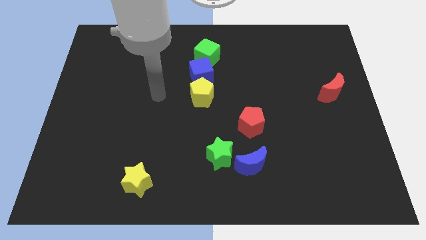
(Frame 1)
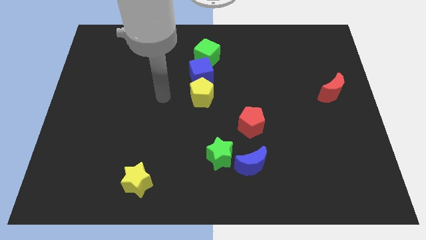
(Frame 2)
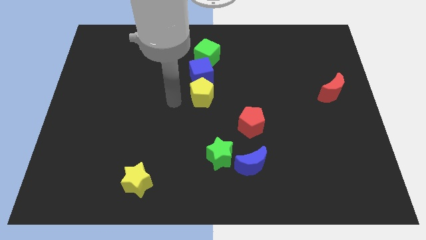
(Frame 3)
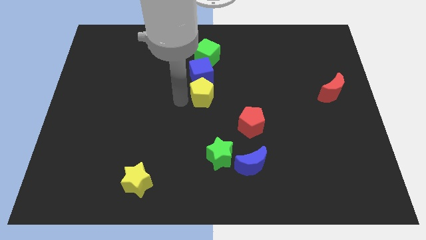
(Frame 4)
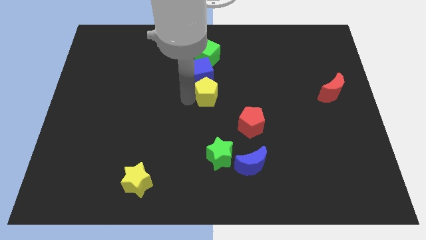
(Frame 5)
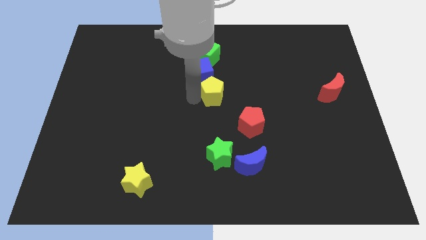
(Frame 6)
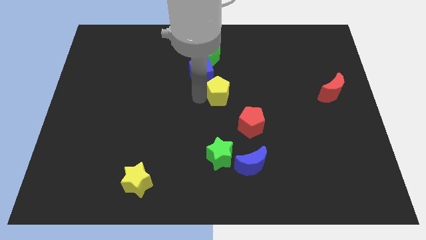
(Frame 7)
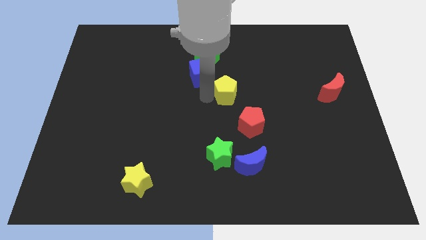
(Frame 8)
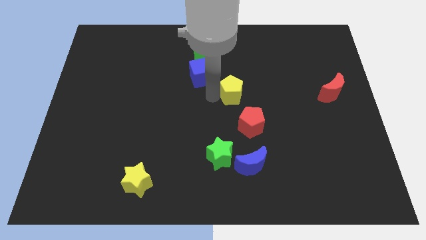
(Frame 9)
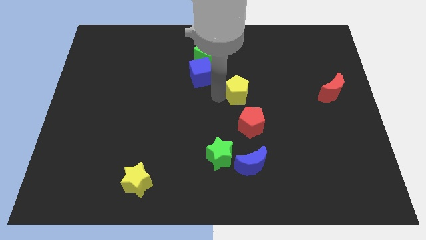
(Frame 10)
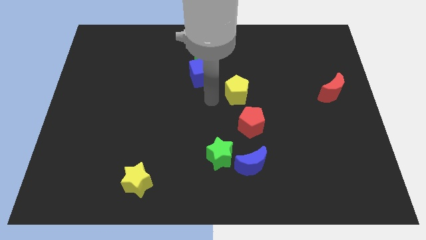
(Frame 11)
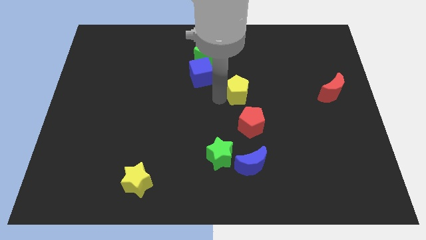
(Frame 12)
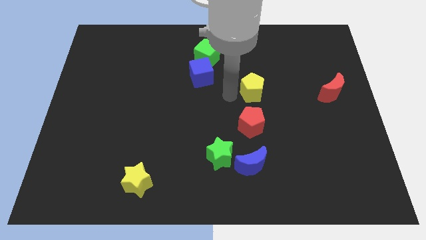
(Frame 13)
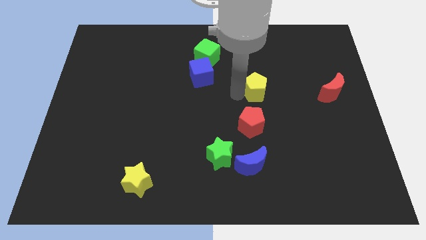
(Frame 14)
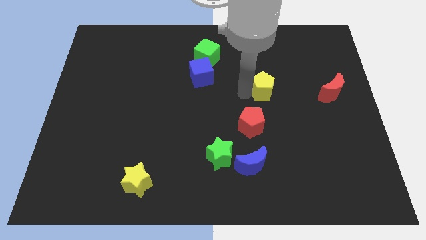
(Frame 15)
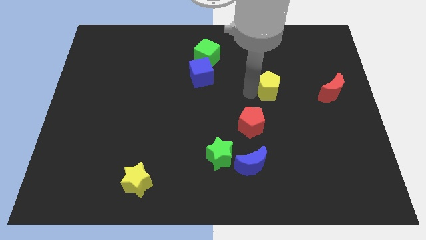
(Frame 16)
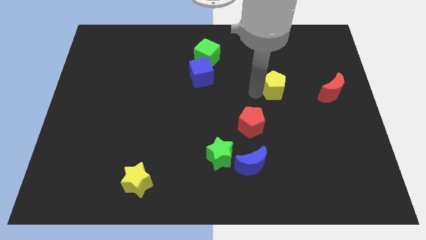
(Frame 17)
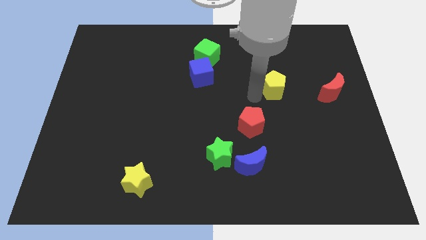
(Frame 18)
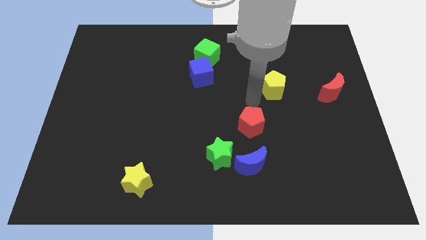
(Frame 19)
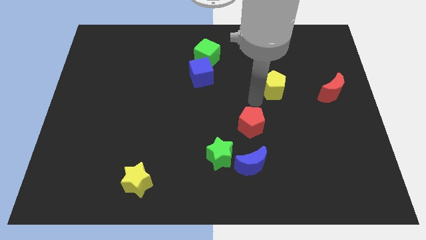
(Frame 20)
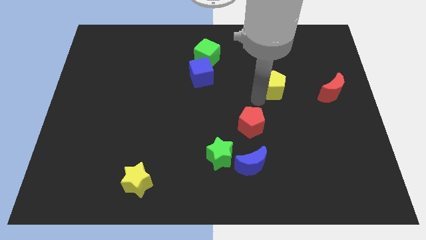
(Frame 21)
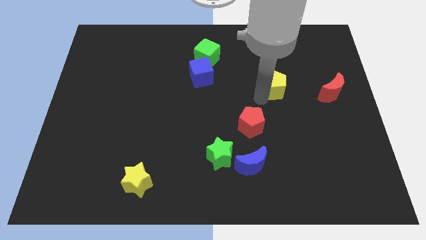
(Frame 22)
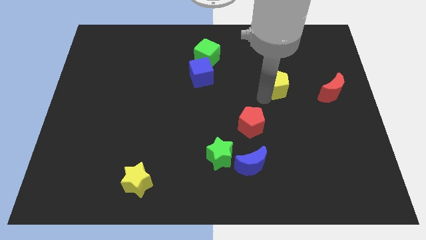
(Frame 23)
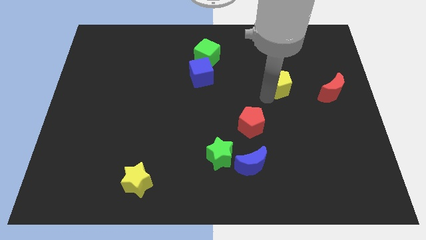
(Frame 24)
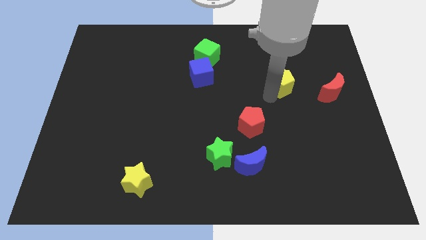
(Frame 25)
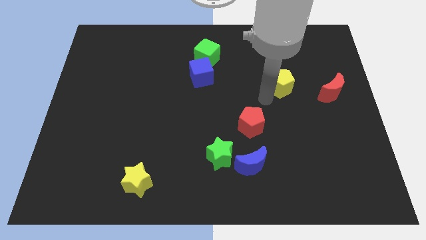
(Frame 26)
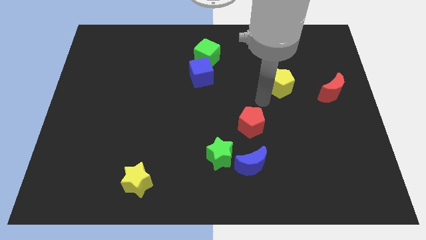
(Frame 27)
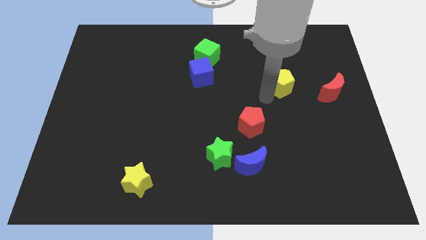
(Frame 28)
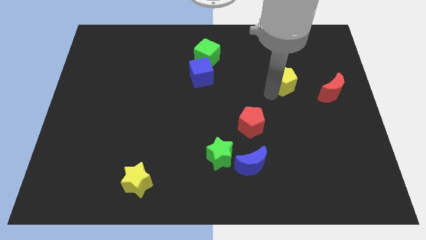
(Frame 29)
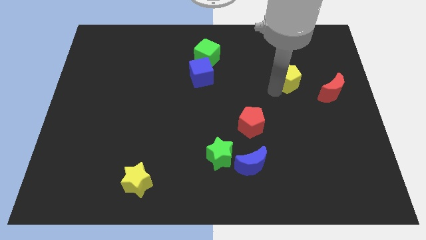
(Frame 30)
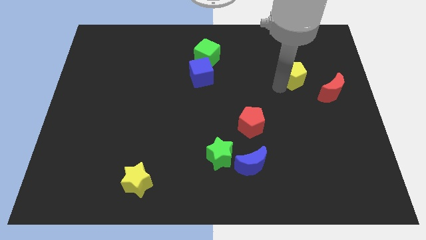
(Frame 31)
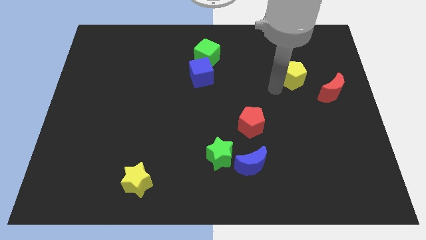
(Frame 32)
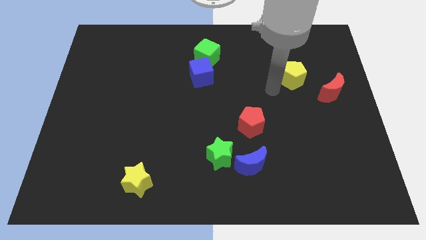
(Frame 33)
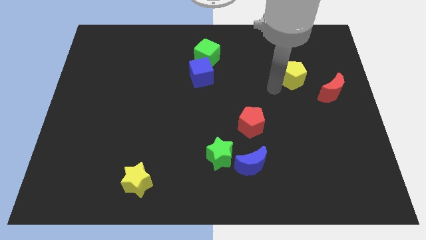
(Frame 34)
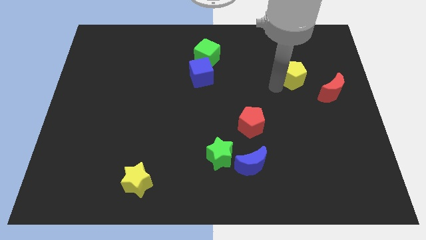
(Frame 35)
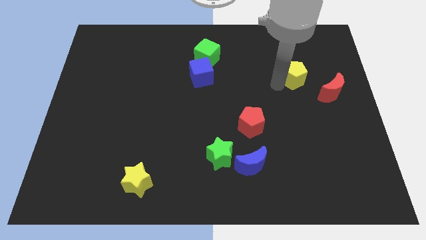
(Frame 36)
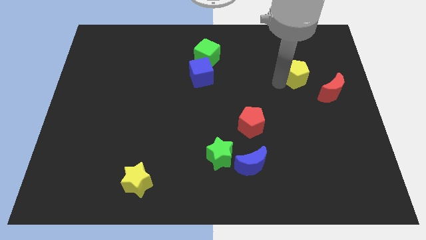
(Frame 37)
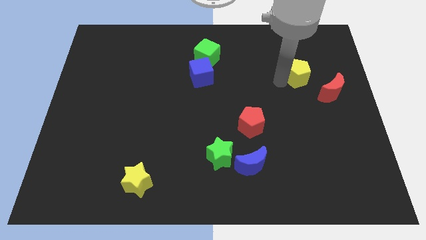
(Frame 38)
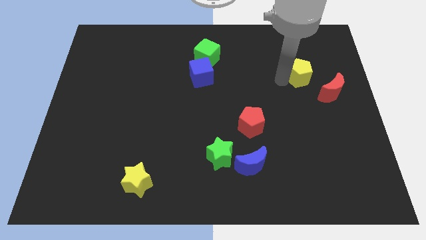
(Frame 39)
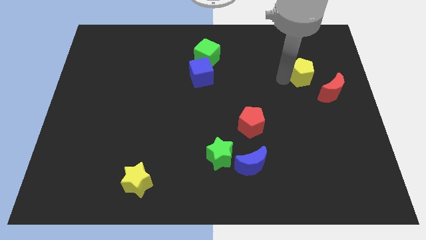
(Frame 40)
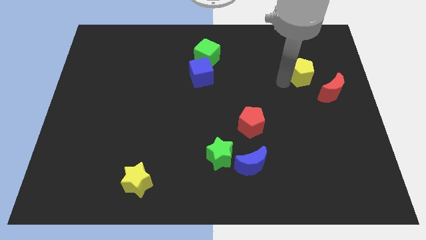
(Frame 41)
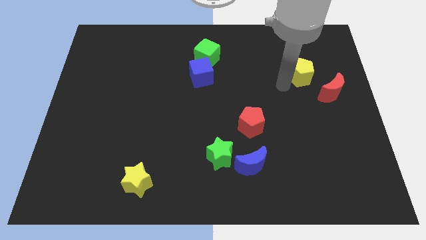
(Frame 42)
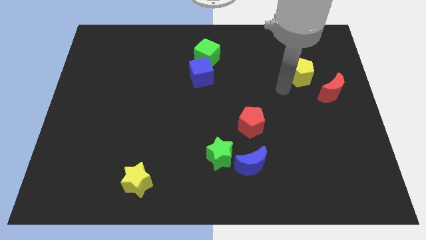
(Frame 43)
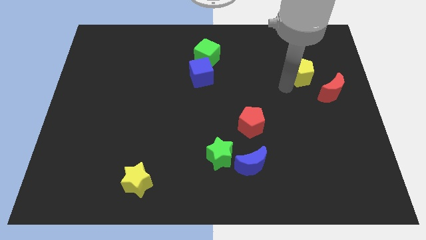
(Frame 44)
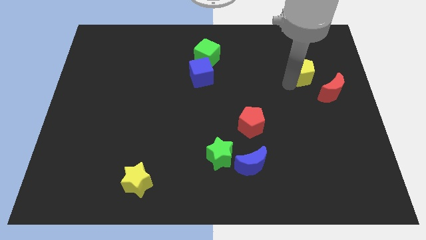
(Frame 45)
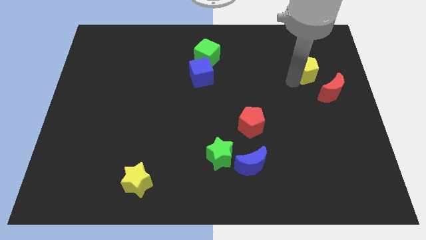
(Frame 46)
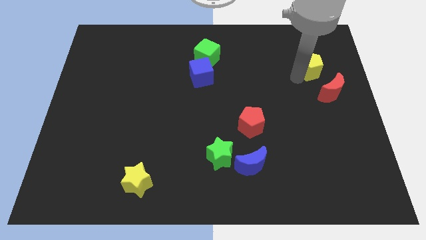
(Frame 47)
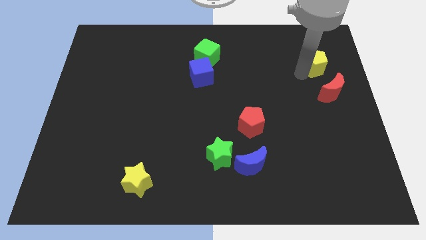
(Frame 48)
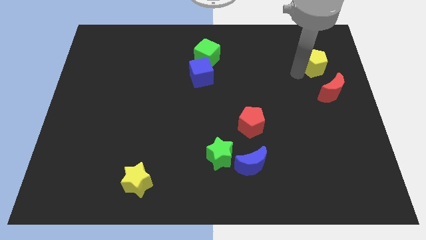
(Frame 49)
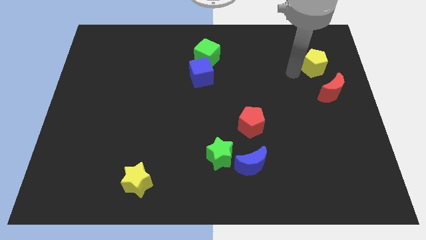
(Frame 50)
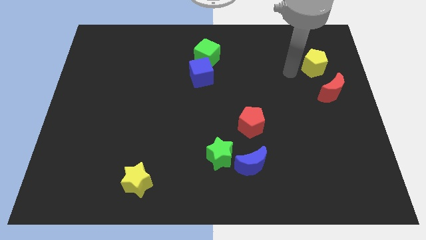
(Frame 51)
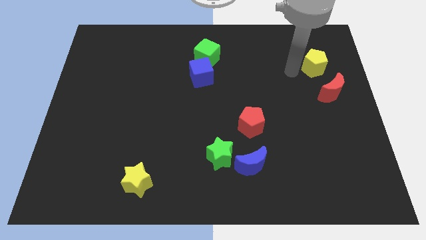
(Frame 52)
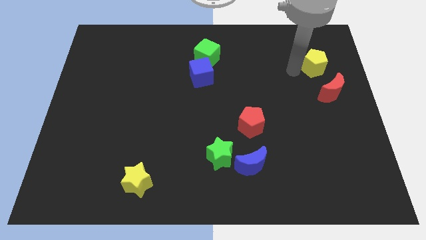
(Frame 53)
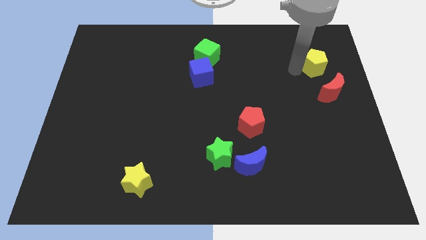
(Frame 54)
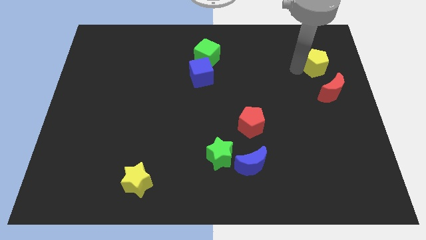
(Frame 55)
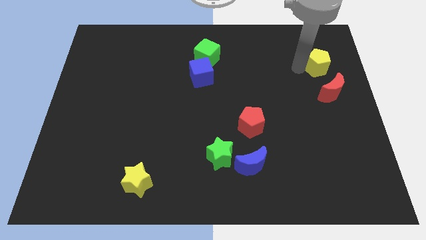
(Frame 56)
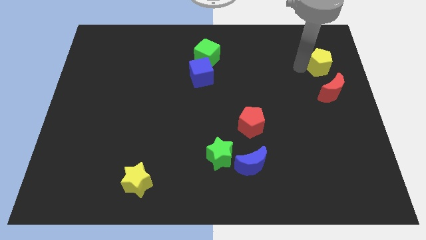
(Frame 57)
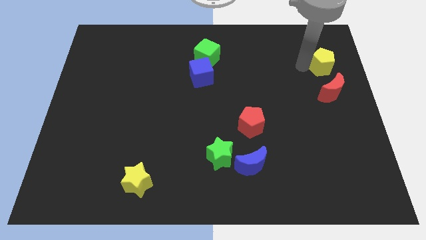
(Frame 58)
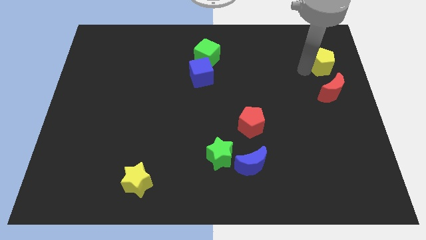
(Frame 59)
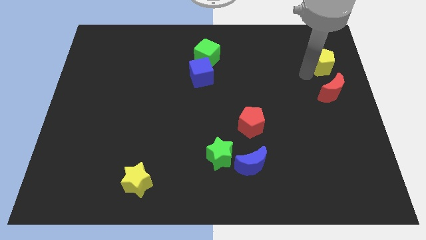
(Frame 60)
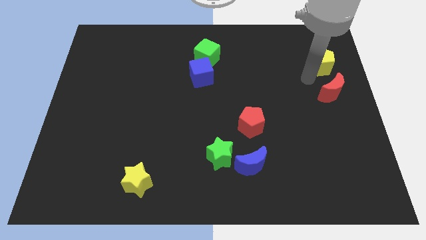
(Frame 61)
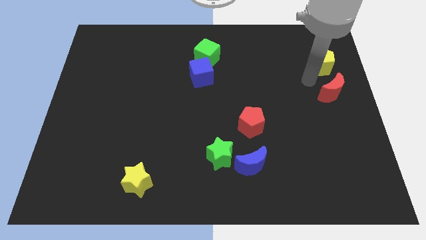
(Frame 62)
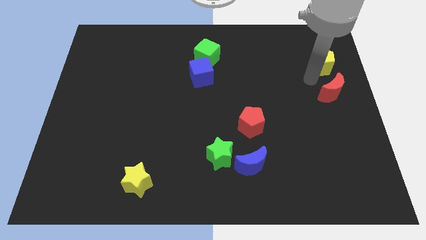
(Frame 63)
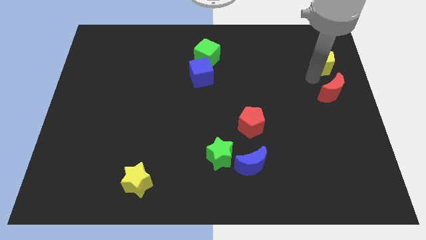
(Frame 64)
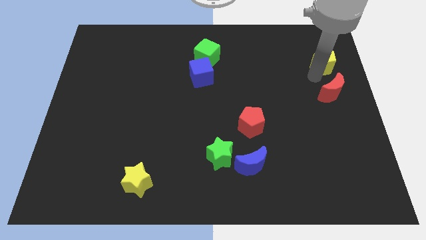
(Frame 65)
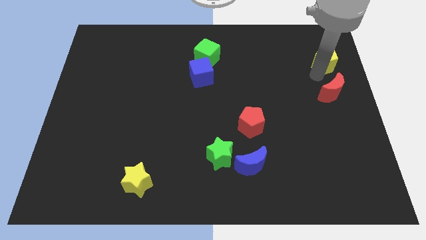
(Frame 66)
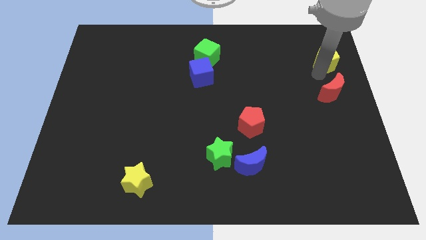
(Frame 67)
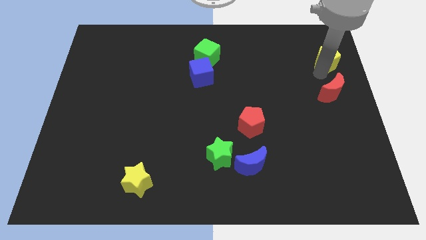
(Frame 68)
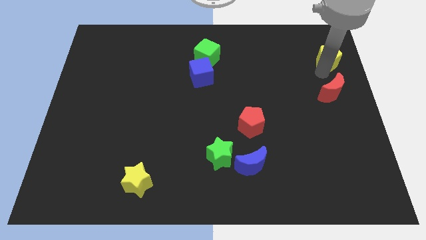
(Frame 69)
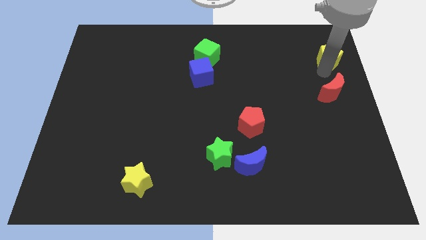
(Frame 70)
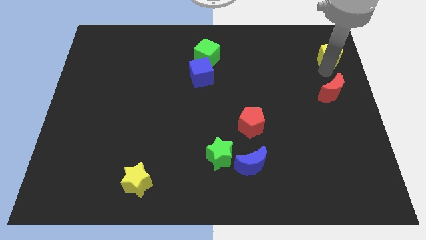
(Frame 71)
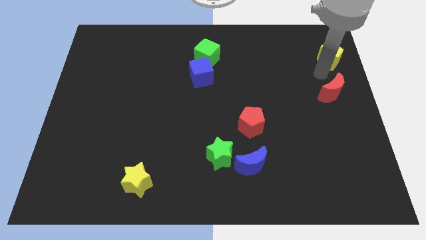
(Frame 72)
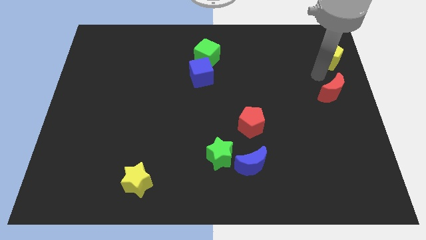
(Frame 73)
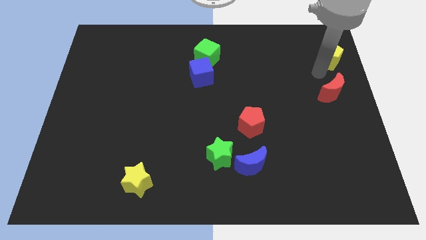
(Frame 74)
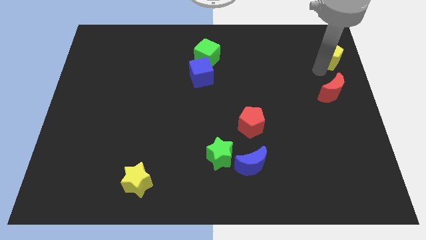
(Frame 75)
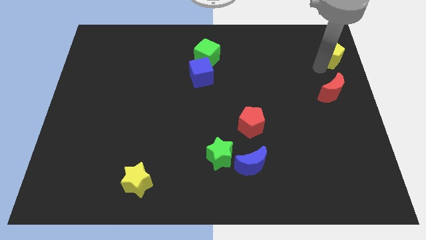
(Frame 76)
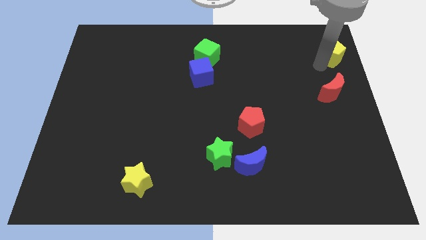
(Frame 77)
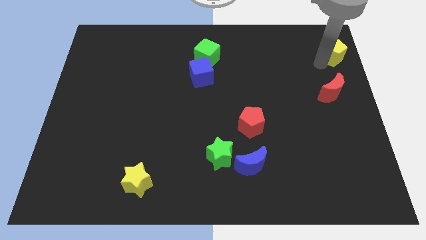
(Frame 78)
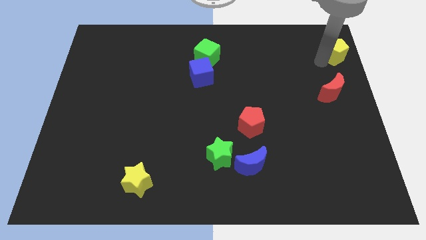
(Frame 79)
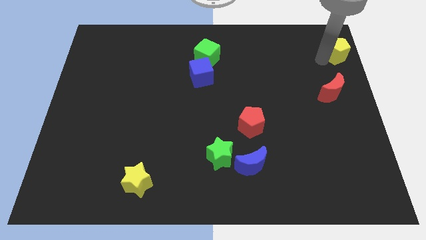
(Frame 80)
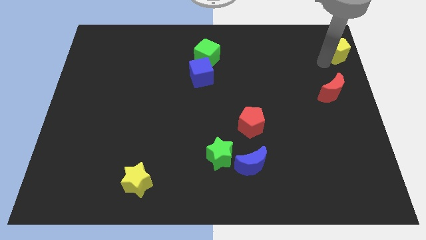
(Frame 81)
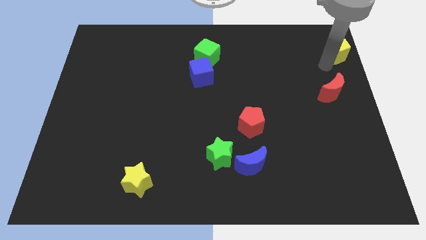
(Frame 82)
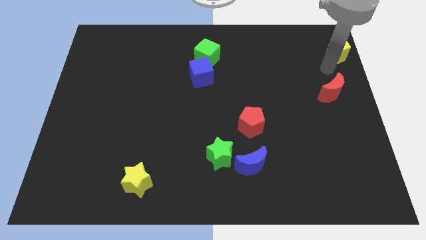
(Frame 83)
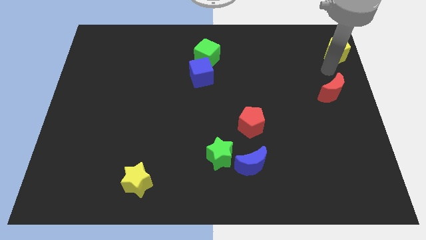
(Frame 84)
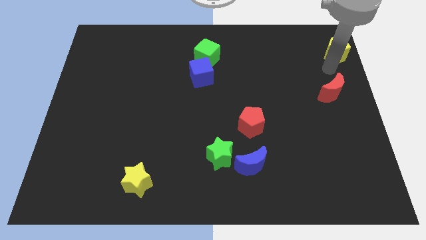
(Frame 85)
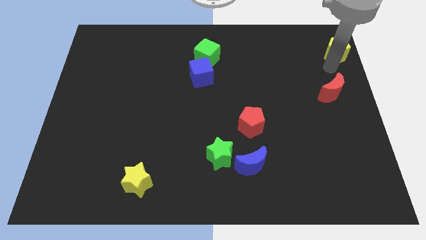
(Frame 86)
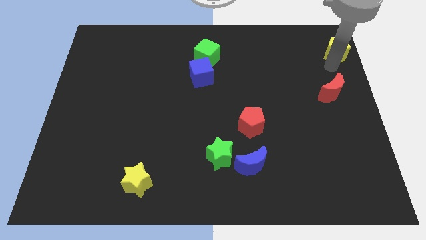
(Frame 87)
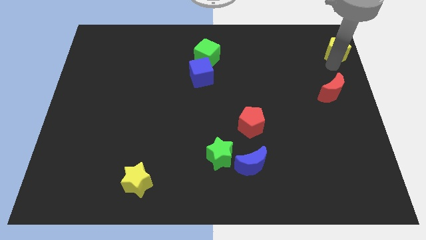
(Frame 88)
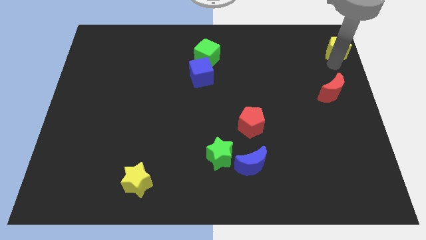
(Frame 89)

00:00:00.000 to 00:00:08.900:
move the yellow pentagon to the top right
